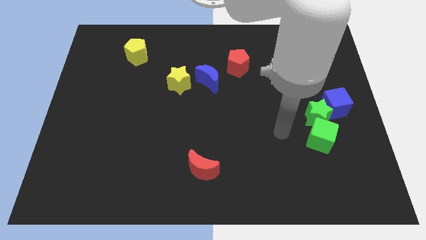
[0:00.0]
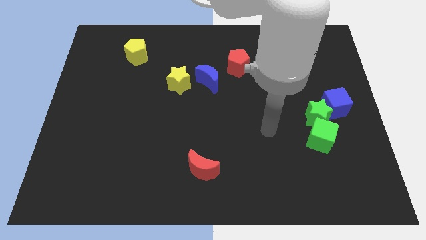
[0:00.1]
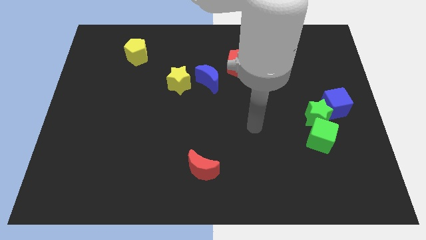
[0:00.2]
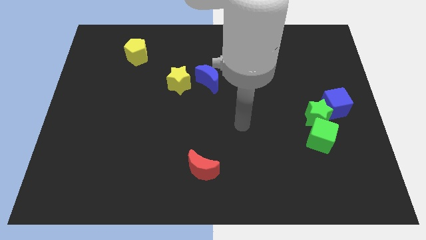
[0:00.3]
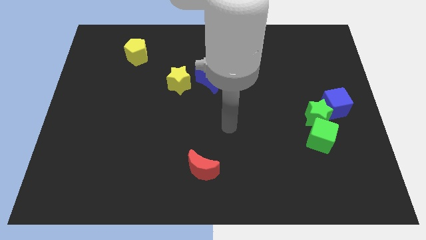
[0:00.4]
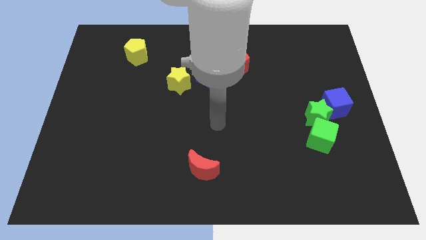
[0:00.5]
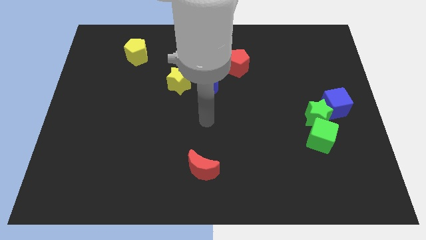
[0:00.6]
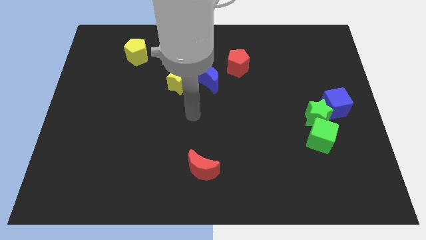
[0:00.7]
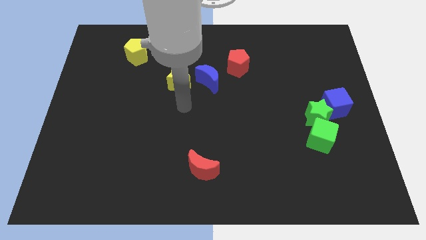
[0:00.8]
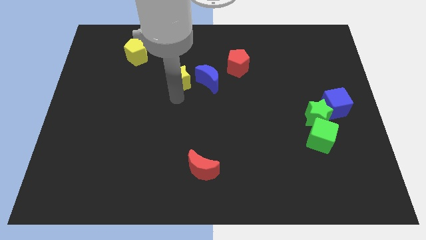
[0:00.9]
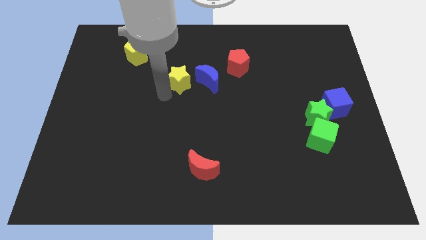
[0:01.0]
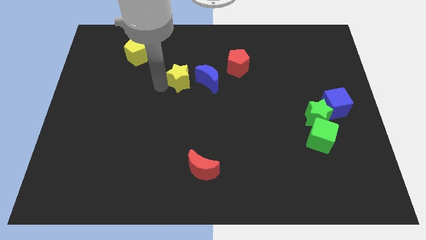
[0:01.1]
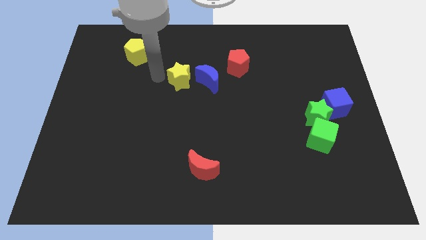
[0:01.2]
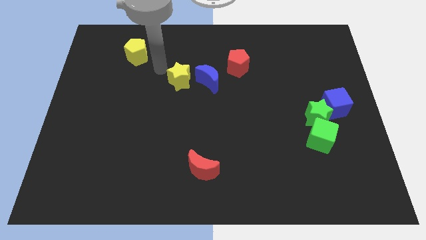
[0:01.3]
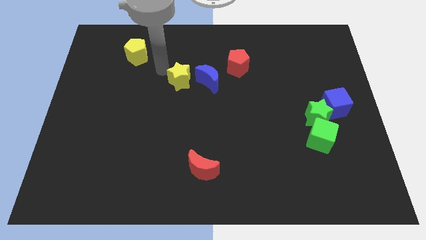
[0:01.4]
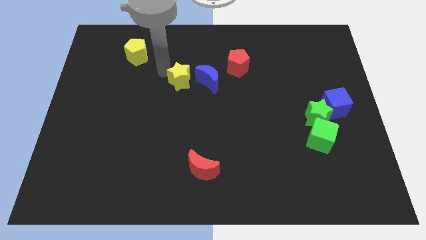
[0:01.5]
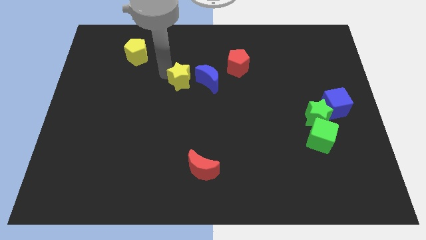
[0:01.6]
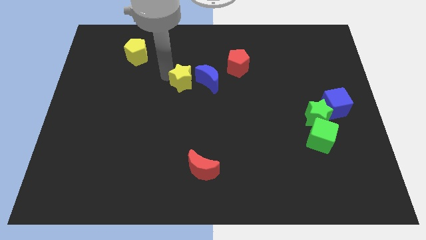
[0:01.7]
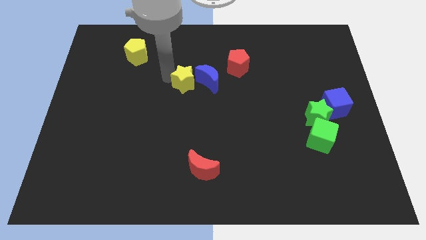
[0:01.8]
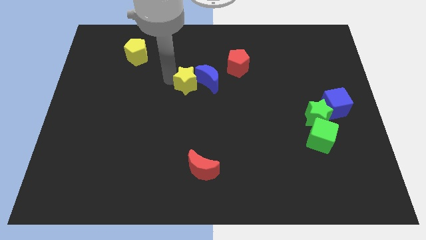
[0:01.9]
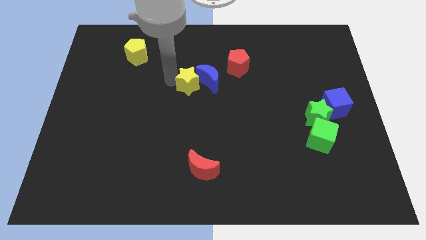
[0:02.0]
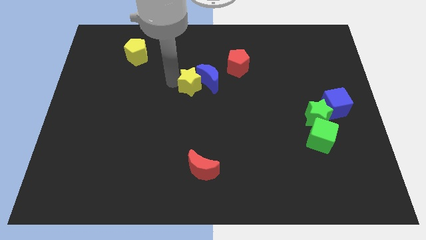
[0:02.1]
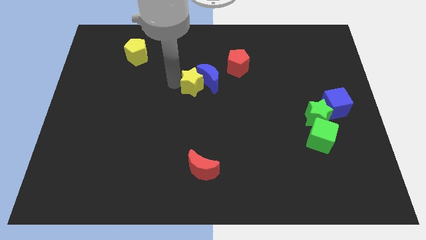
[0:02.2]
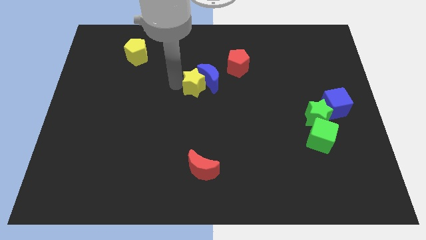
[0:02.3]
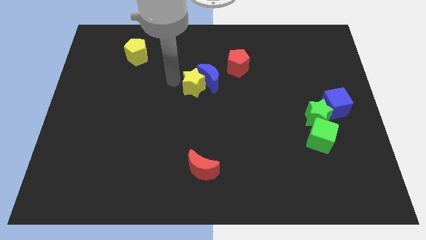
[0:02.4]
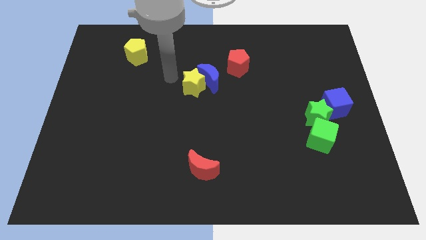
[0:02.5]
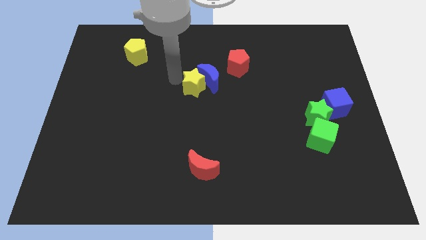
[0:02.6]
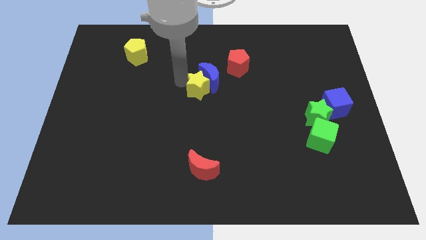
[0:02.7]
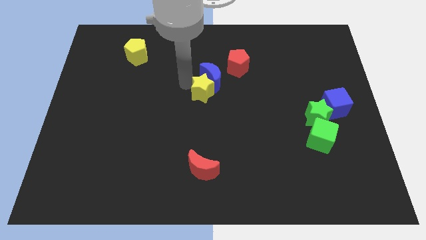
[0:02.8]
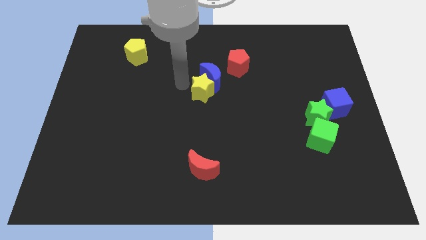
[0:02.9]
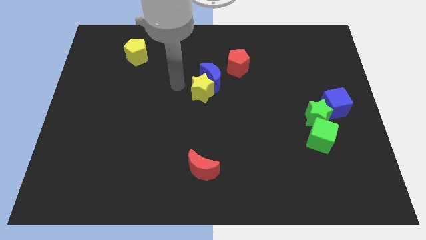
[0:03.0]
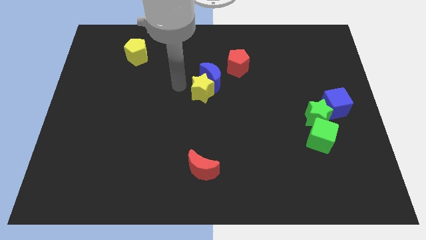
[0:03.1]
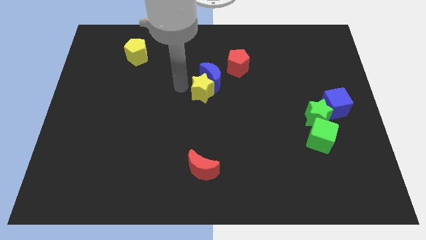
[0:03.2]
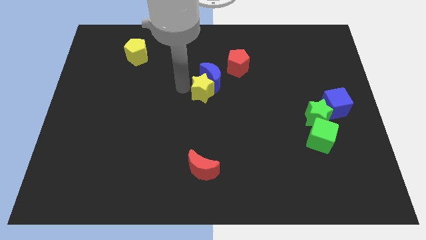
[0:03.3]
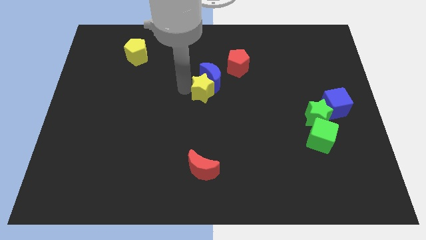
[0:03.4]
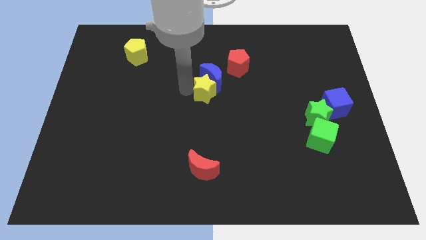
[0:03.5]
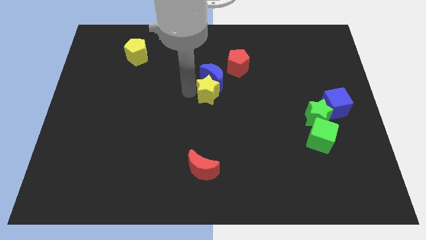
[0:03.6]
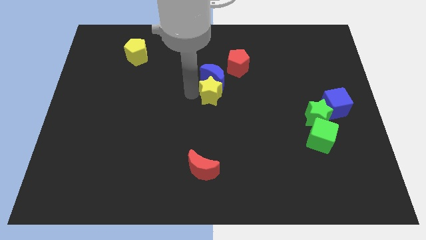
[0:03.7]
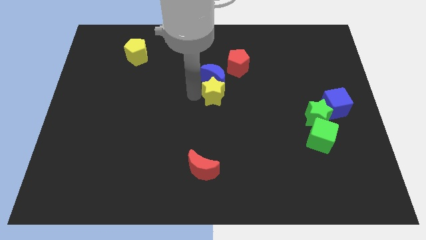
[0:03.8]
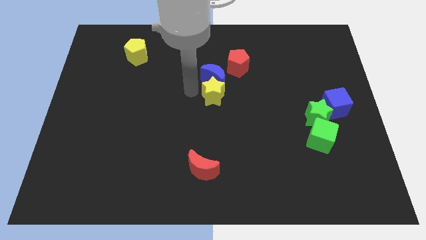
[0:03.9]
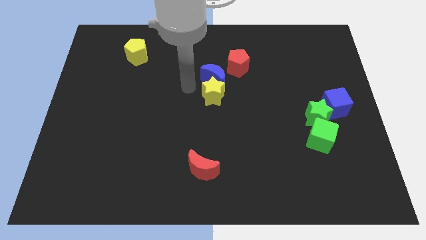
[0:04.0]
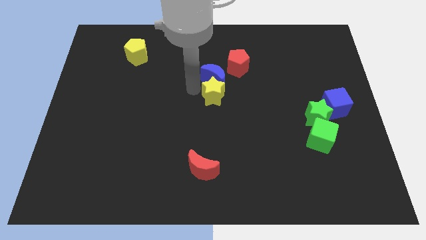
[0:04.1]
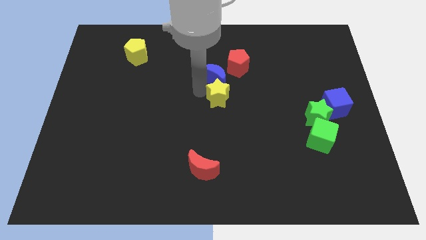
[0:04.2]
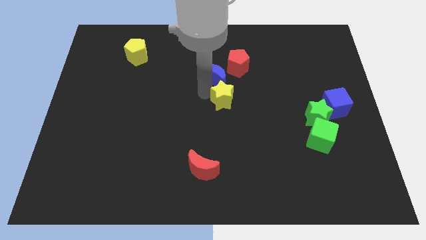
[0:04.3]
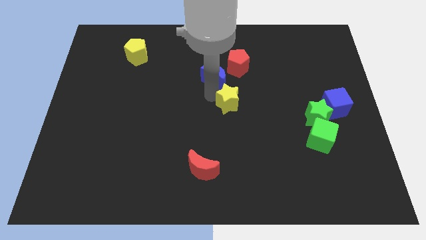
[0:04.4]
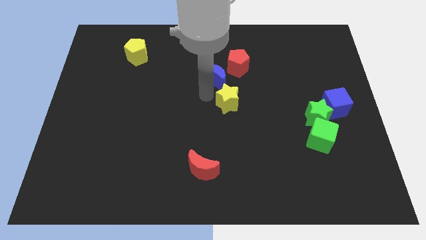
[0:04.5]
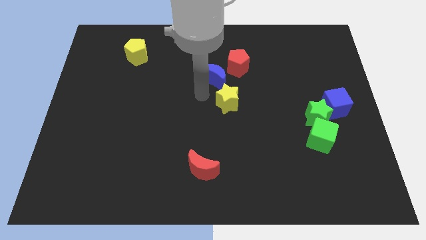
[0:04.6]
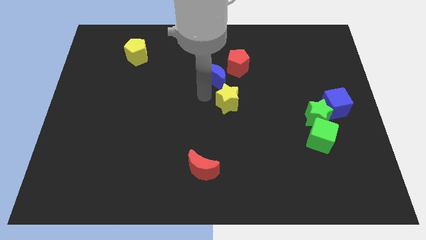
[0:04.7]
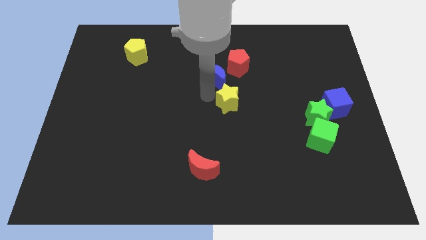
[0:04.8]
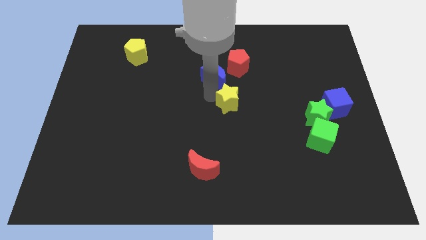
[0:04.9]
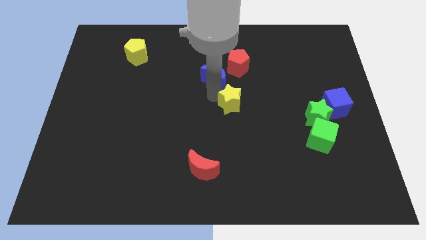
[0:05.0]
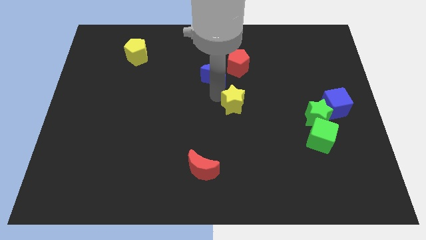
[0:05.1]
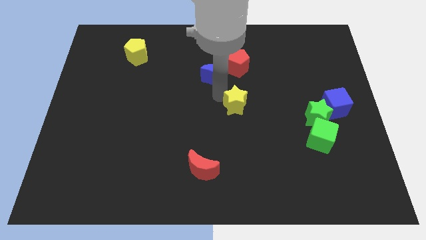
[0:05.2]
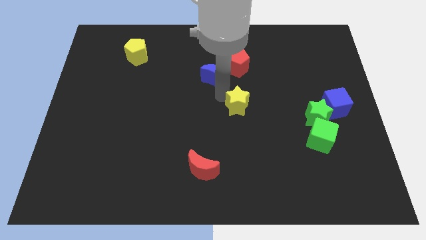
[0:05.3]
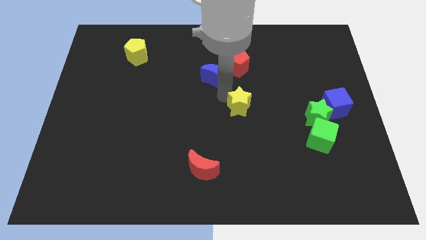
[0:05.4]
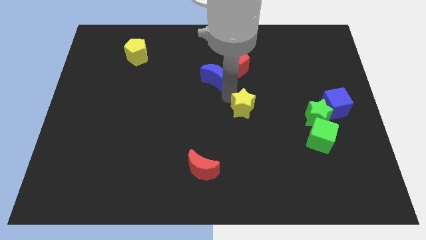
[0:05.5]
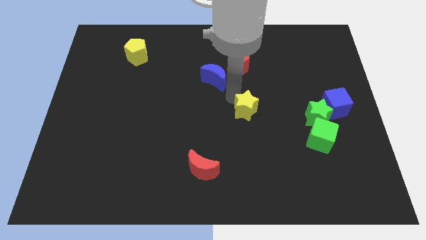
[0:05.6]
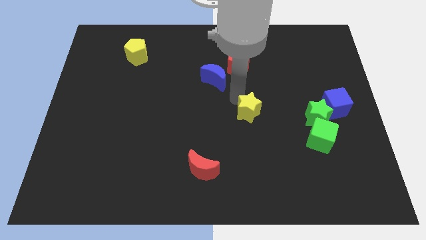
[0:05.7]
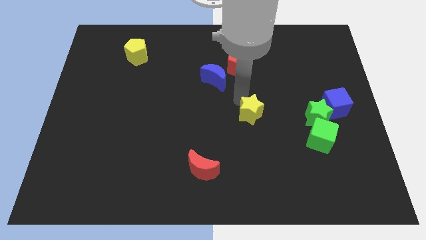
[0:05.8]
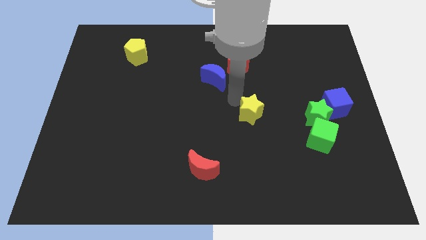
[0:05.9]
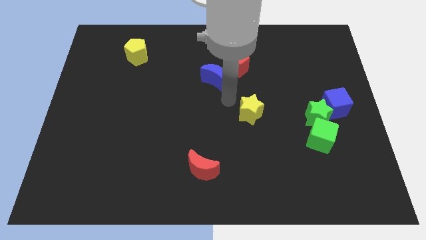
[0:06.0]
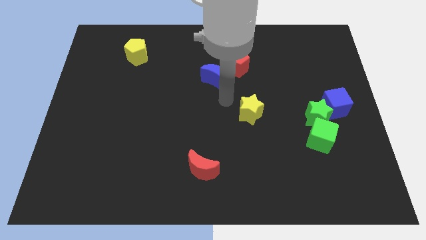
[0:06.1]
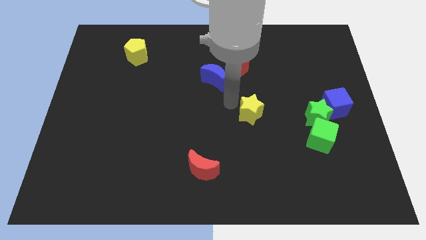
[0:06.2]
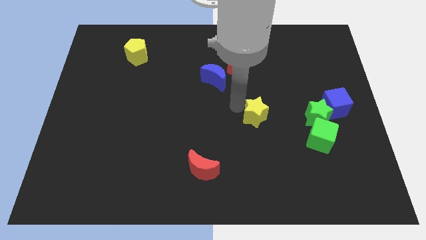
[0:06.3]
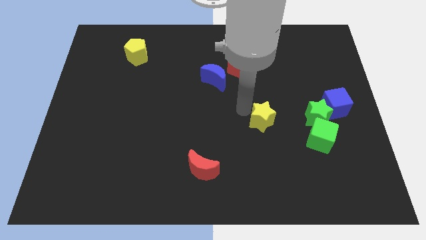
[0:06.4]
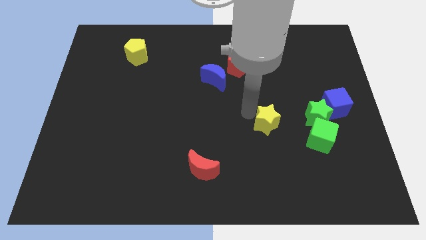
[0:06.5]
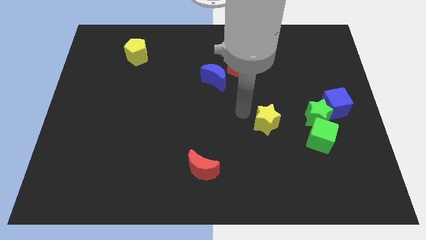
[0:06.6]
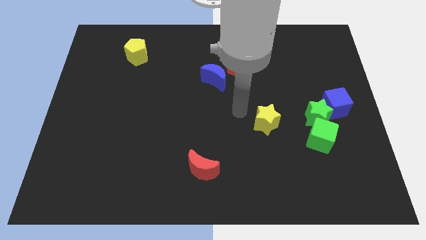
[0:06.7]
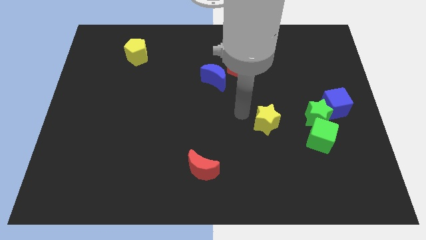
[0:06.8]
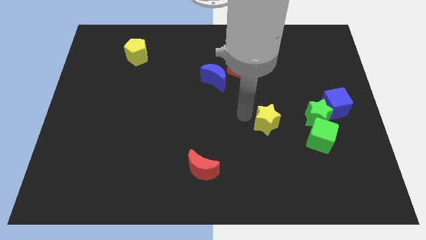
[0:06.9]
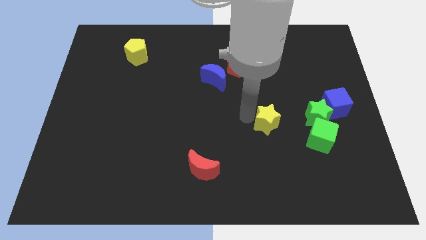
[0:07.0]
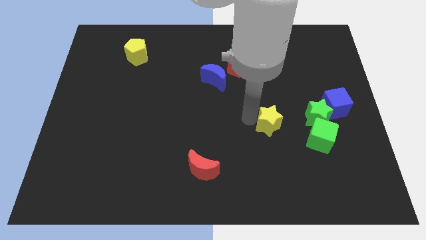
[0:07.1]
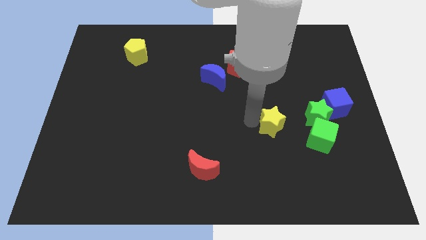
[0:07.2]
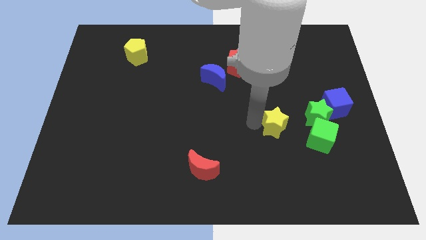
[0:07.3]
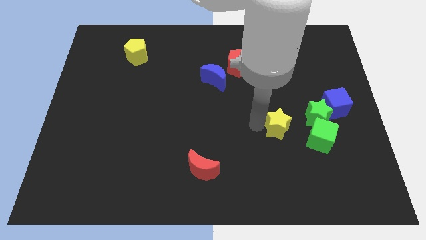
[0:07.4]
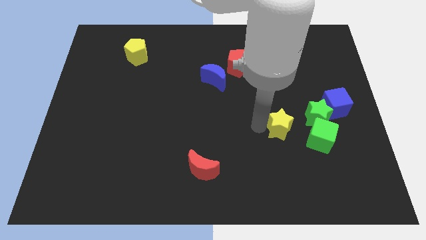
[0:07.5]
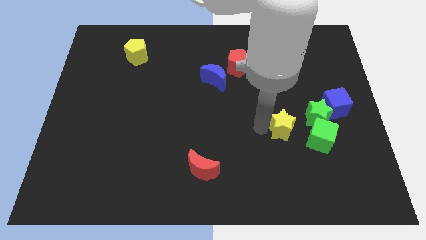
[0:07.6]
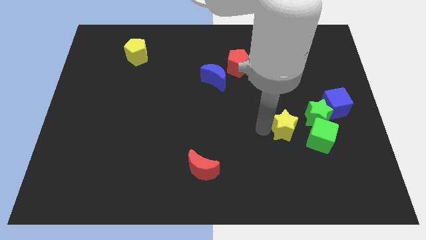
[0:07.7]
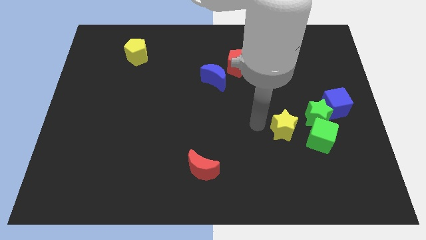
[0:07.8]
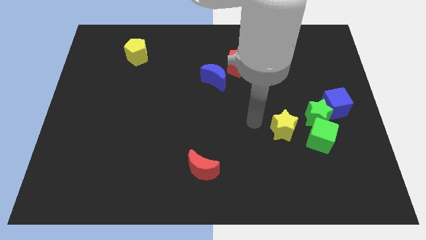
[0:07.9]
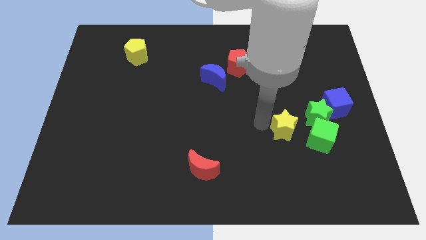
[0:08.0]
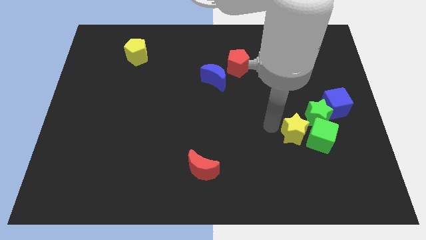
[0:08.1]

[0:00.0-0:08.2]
put the yellow star to the green cube
